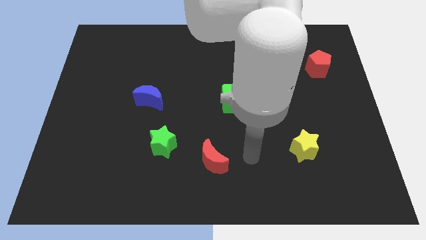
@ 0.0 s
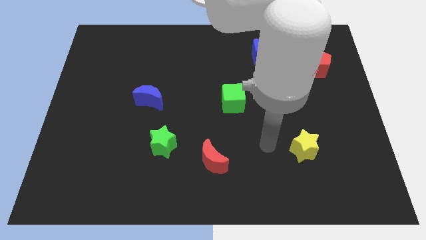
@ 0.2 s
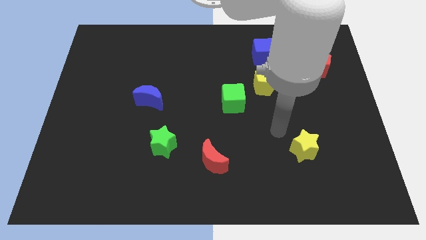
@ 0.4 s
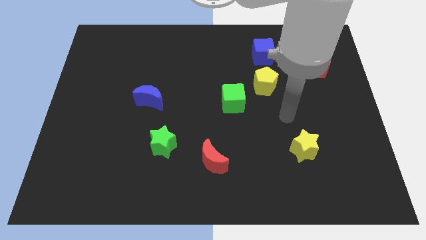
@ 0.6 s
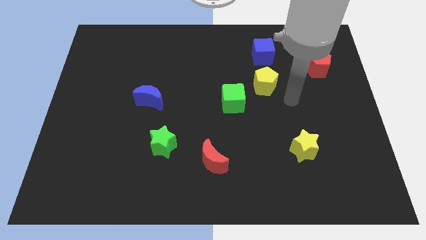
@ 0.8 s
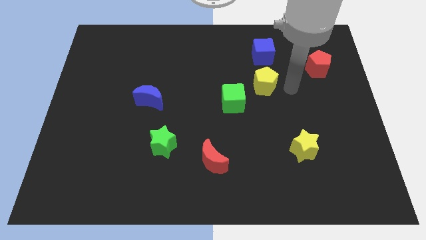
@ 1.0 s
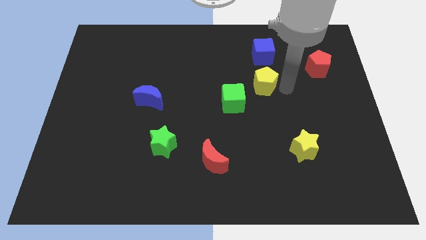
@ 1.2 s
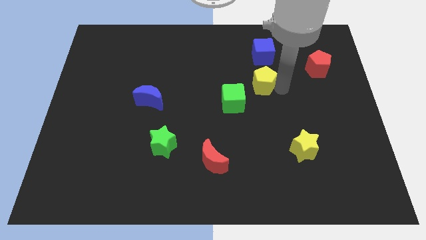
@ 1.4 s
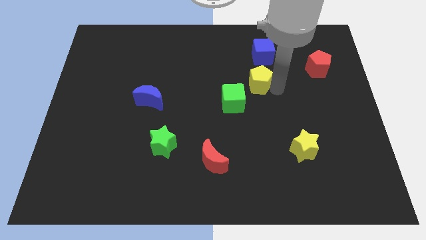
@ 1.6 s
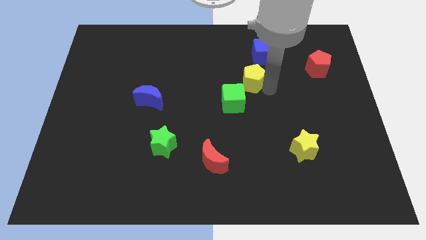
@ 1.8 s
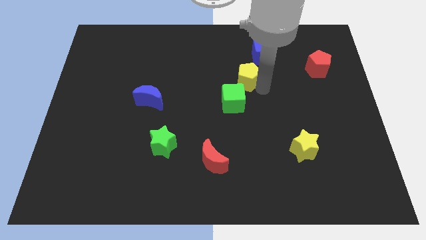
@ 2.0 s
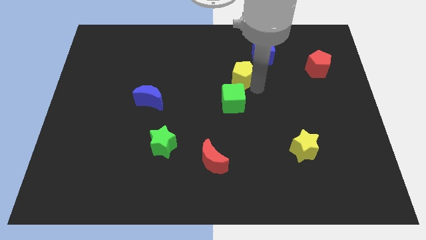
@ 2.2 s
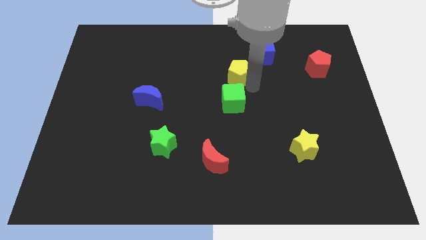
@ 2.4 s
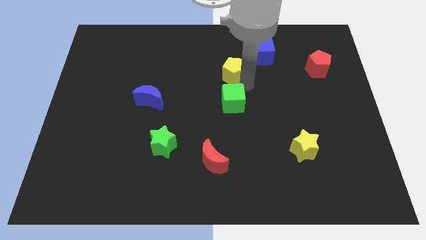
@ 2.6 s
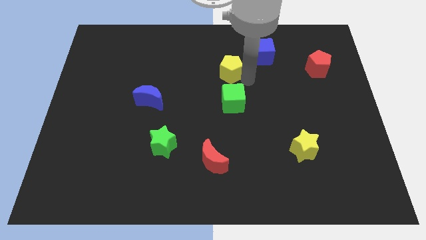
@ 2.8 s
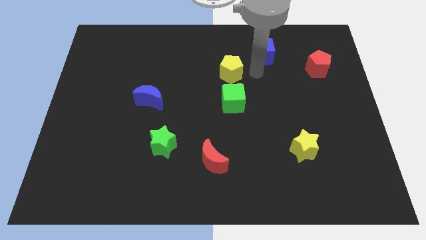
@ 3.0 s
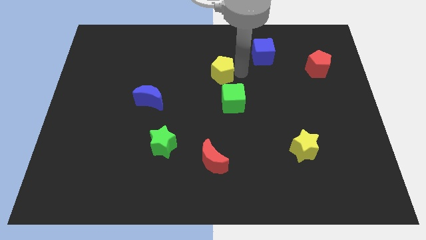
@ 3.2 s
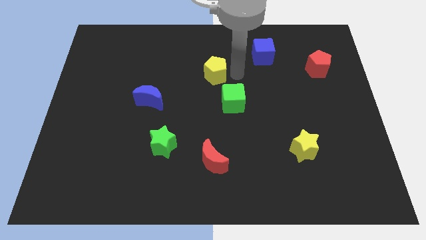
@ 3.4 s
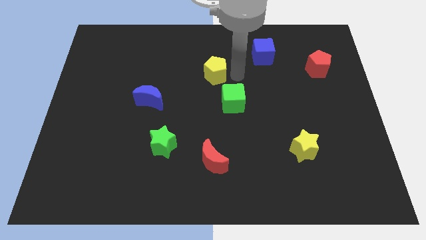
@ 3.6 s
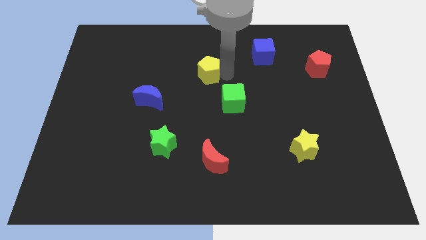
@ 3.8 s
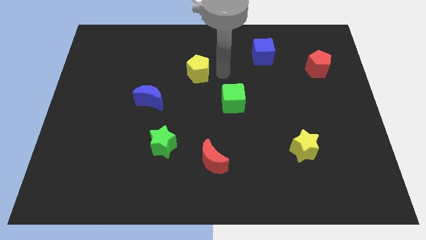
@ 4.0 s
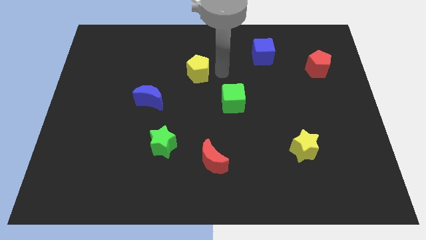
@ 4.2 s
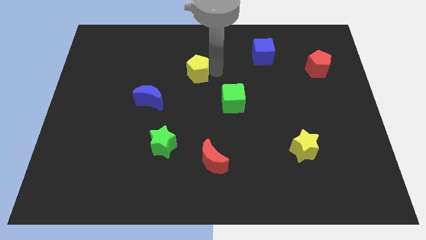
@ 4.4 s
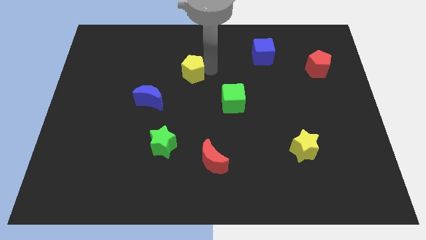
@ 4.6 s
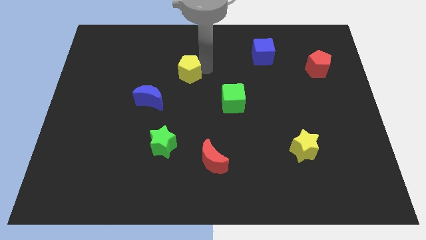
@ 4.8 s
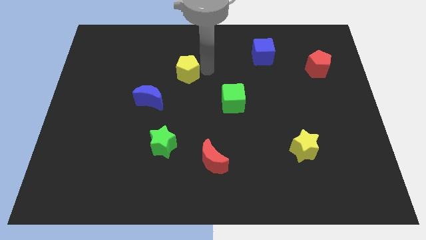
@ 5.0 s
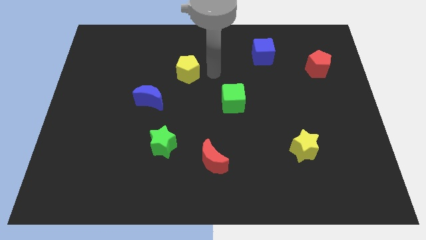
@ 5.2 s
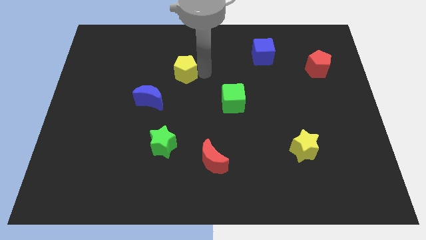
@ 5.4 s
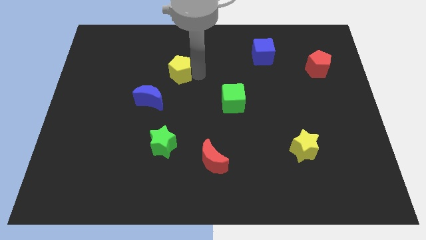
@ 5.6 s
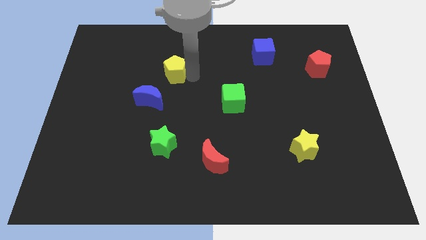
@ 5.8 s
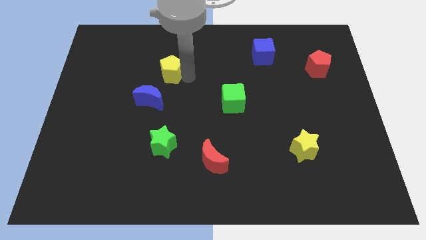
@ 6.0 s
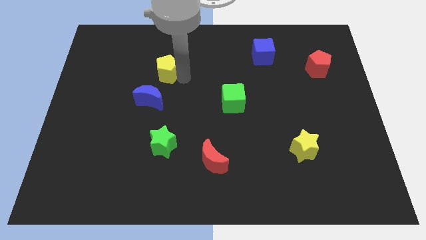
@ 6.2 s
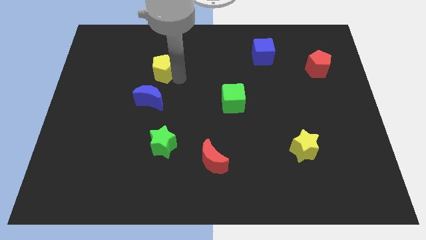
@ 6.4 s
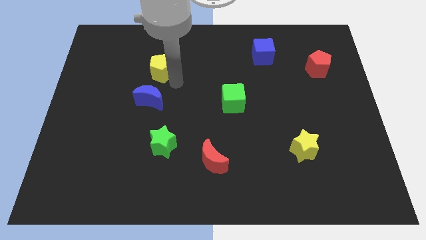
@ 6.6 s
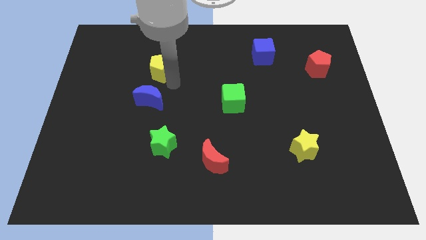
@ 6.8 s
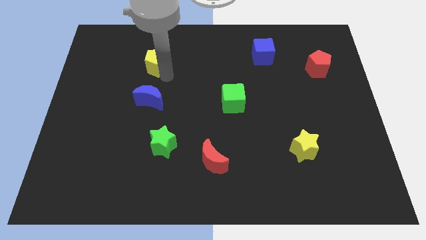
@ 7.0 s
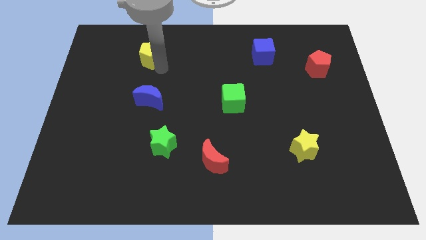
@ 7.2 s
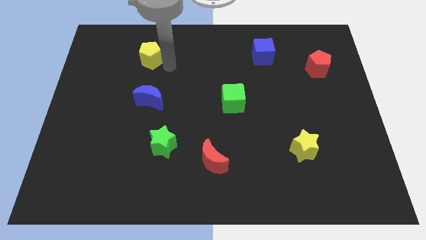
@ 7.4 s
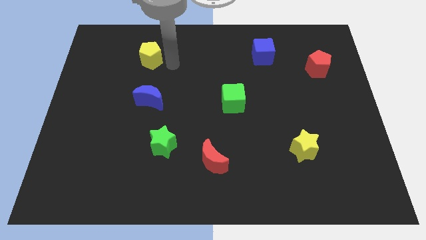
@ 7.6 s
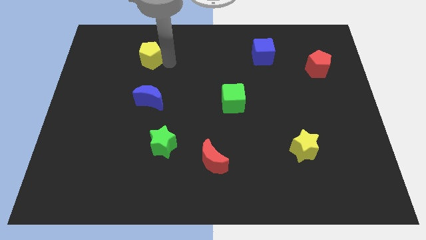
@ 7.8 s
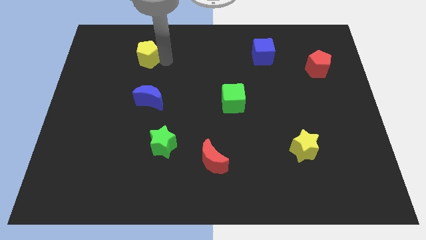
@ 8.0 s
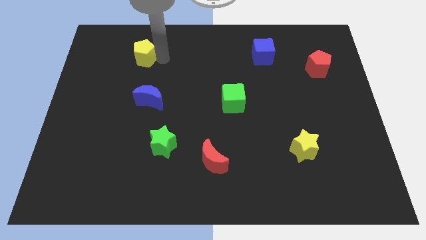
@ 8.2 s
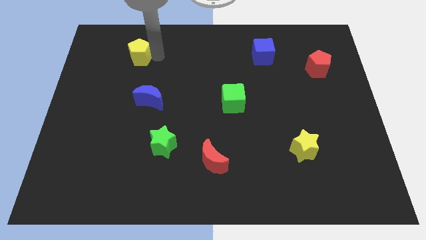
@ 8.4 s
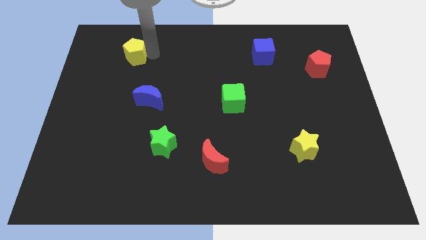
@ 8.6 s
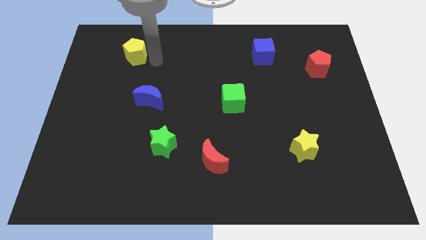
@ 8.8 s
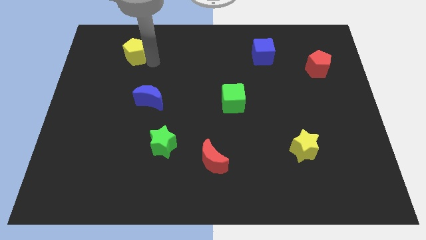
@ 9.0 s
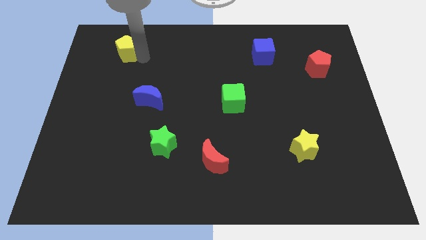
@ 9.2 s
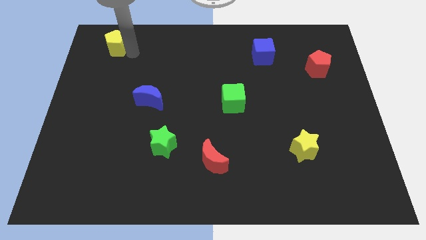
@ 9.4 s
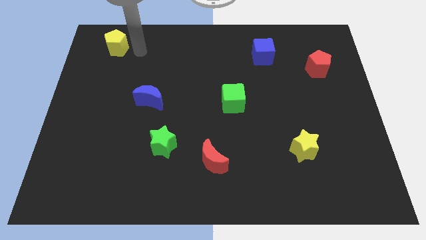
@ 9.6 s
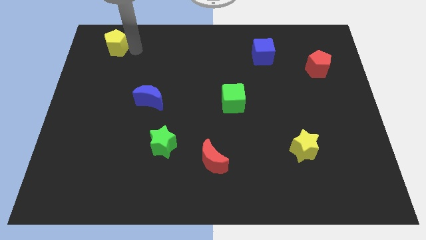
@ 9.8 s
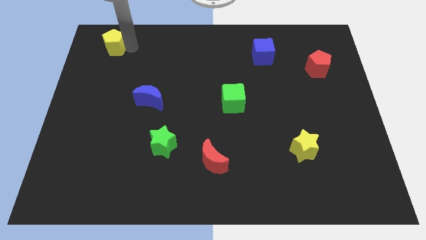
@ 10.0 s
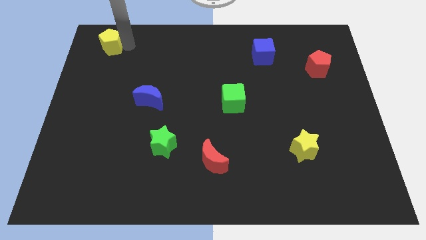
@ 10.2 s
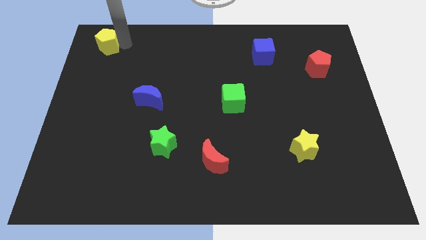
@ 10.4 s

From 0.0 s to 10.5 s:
move the yellow pentagon to the top left corner

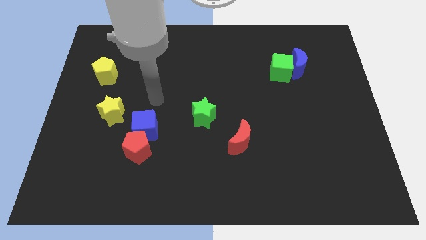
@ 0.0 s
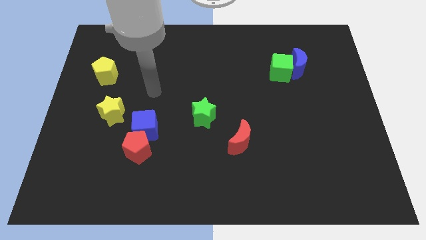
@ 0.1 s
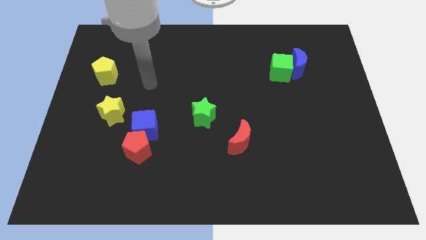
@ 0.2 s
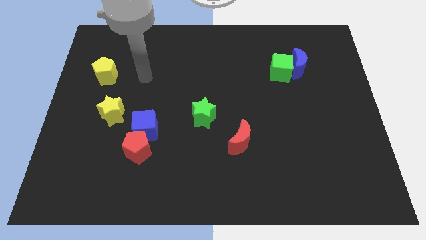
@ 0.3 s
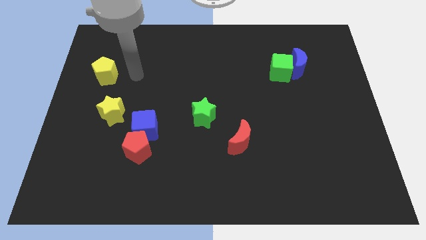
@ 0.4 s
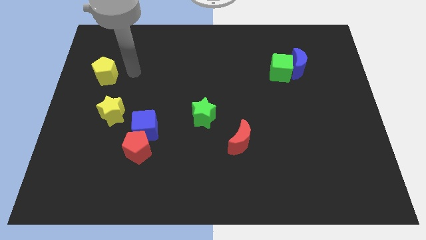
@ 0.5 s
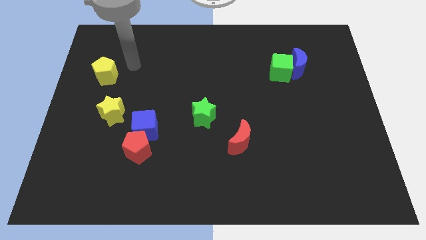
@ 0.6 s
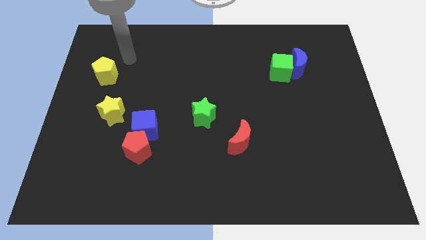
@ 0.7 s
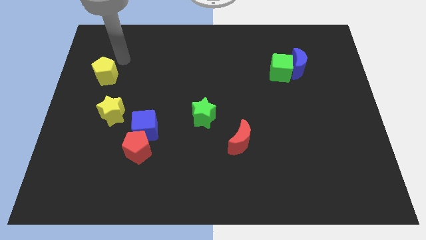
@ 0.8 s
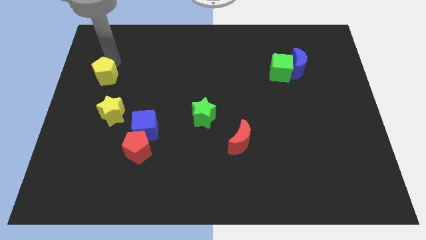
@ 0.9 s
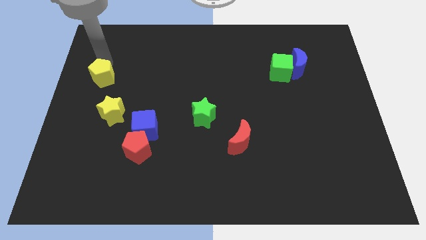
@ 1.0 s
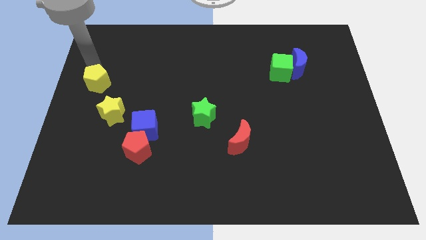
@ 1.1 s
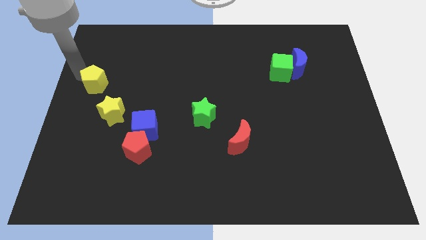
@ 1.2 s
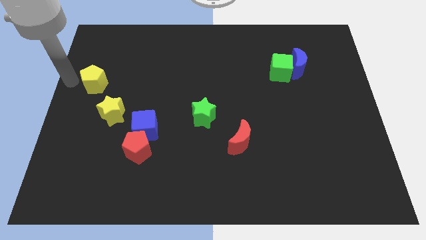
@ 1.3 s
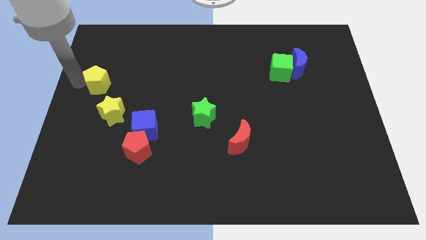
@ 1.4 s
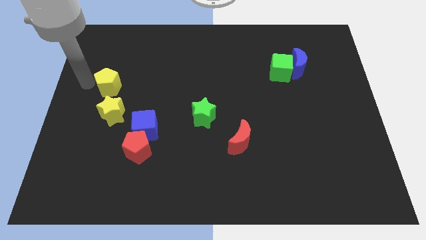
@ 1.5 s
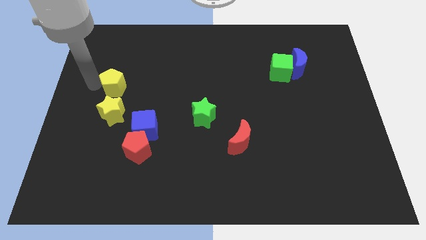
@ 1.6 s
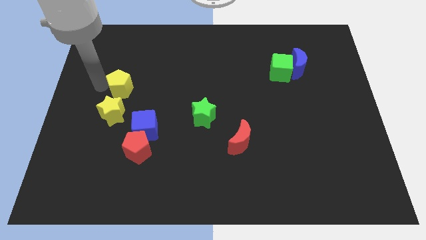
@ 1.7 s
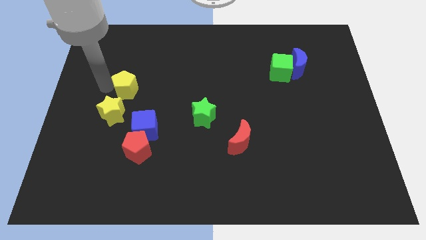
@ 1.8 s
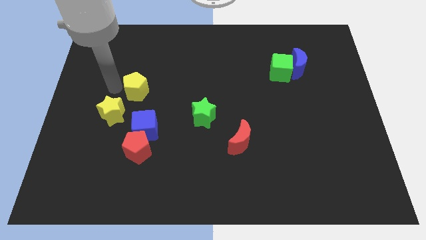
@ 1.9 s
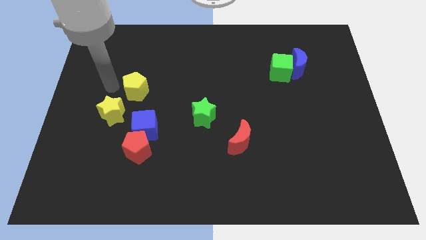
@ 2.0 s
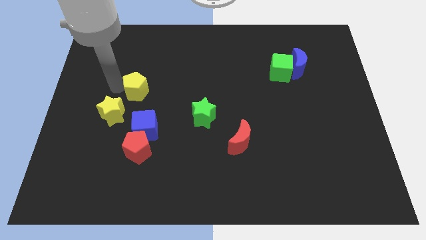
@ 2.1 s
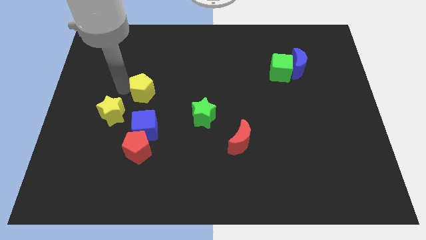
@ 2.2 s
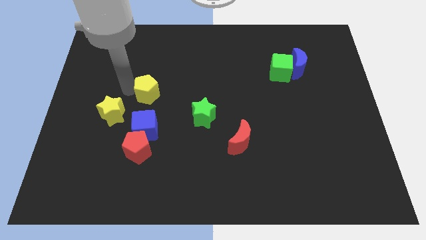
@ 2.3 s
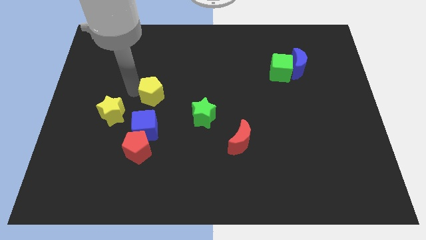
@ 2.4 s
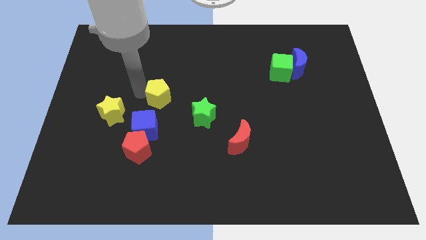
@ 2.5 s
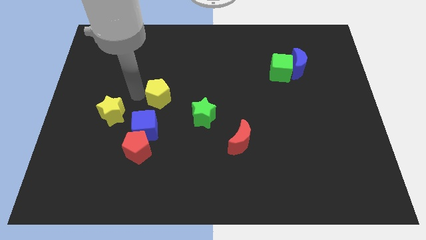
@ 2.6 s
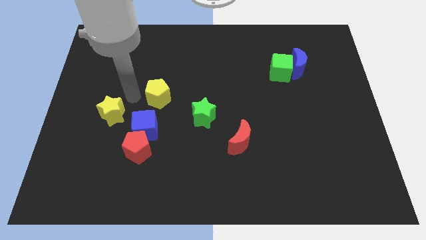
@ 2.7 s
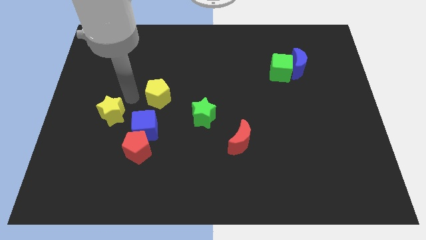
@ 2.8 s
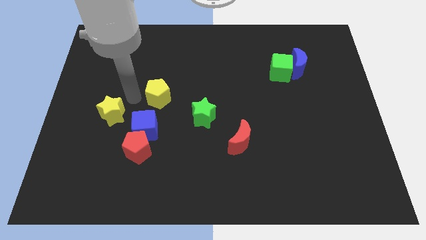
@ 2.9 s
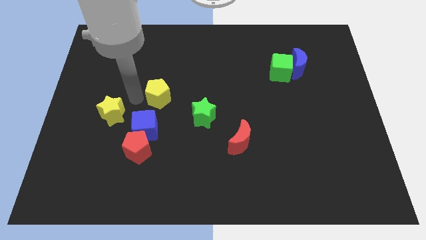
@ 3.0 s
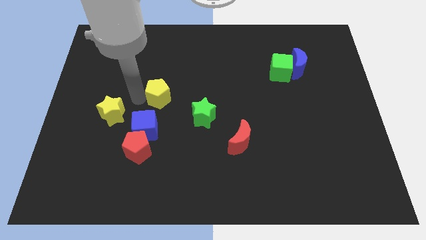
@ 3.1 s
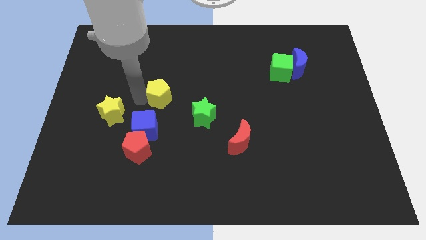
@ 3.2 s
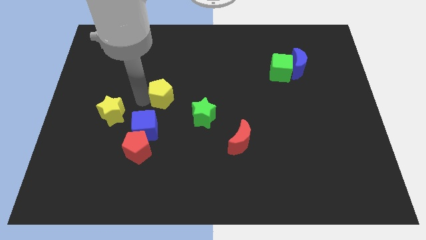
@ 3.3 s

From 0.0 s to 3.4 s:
push the yellow pentagon to the center

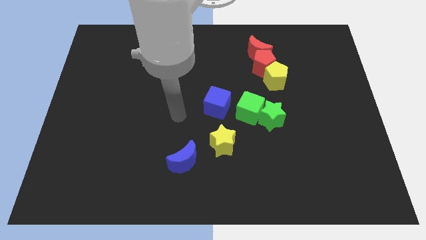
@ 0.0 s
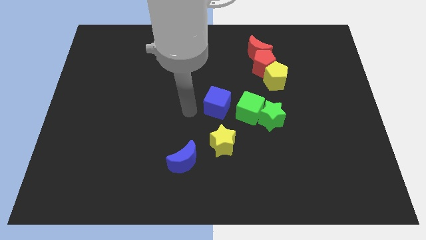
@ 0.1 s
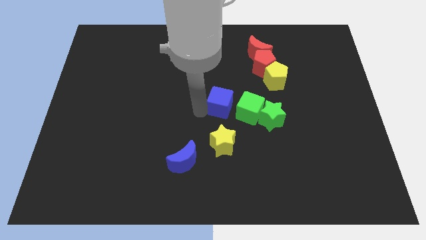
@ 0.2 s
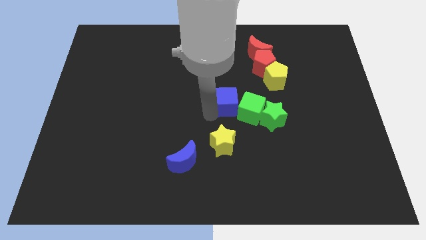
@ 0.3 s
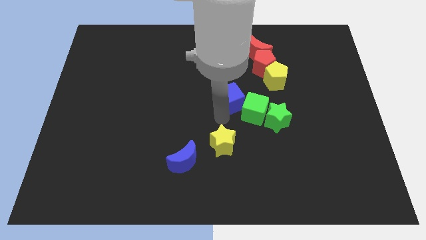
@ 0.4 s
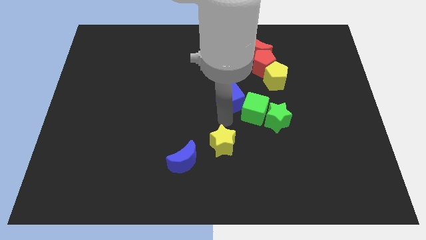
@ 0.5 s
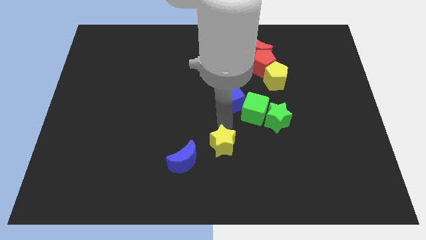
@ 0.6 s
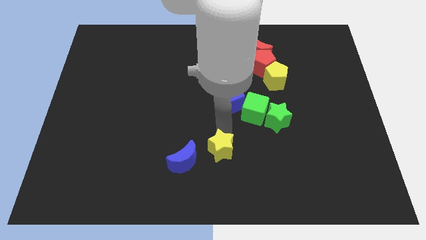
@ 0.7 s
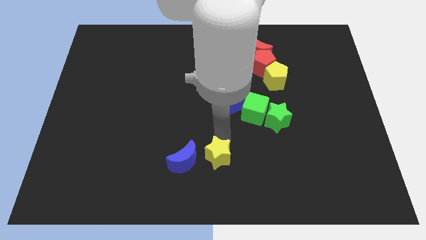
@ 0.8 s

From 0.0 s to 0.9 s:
slide the yellow star to the bottom side
